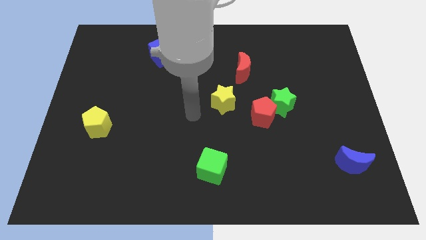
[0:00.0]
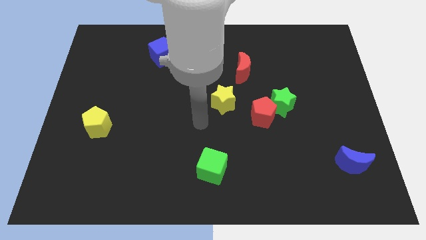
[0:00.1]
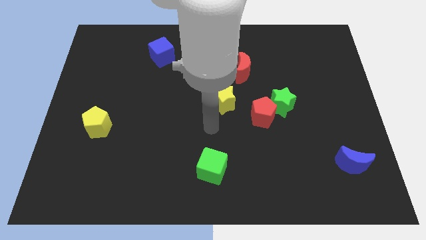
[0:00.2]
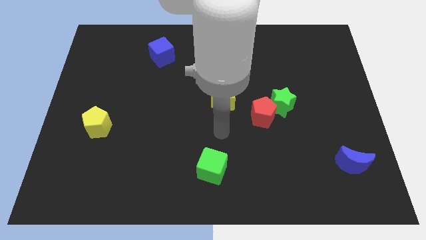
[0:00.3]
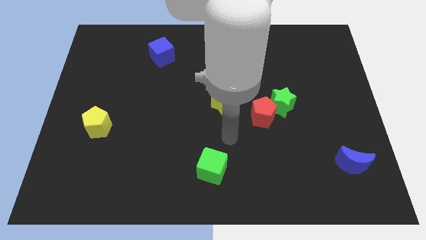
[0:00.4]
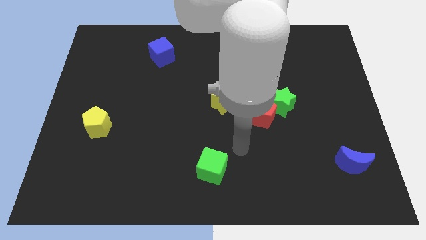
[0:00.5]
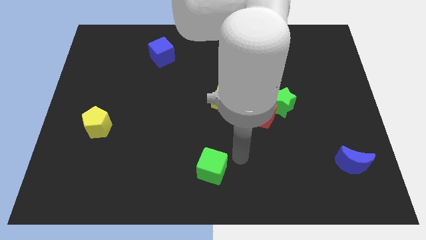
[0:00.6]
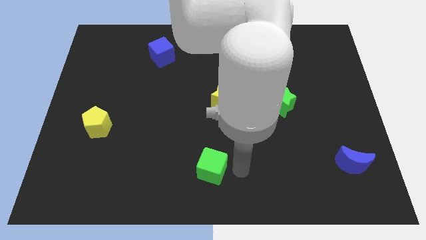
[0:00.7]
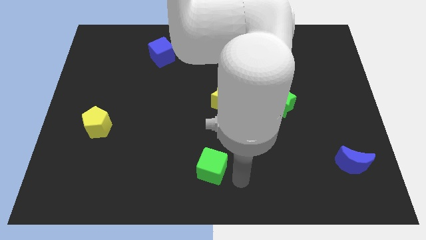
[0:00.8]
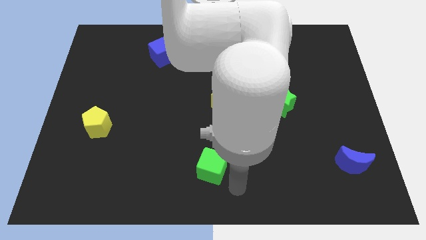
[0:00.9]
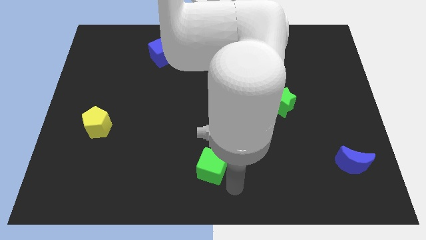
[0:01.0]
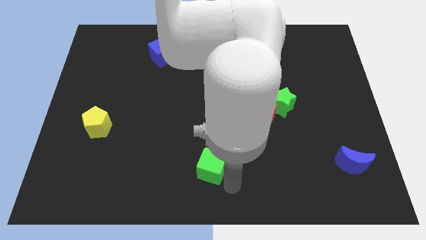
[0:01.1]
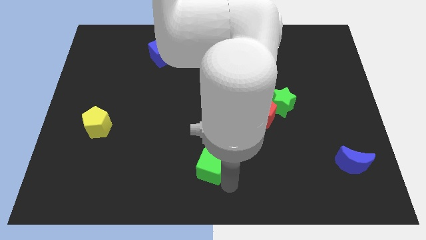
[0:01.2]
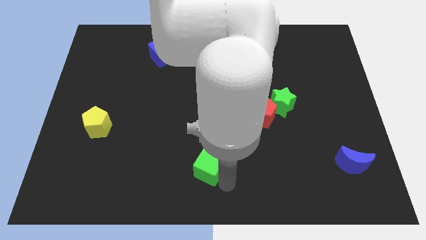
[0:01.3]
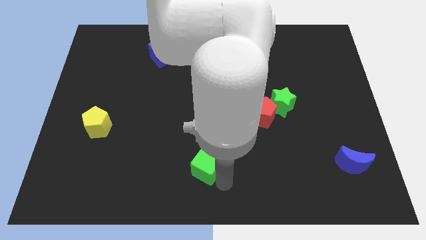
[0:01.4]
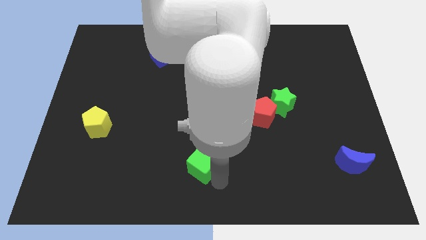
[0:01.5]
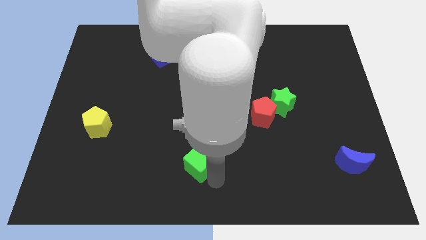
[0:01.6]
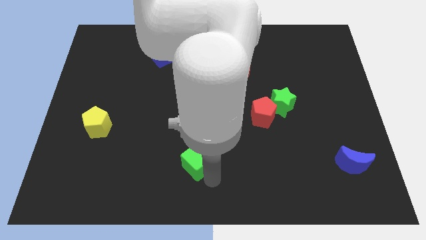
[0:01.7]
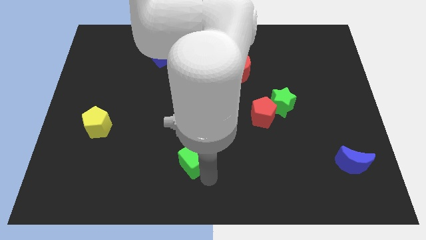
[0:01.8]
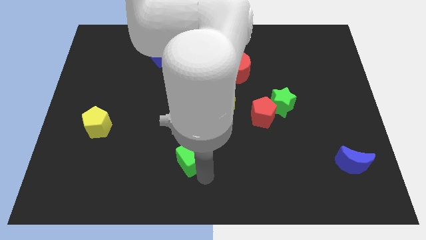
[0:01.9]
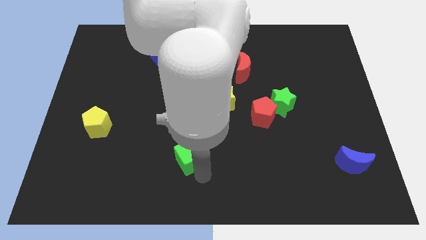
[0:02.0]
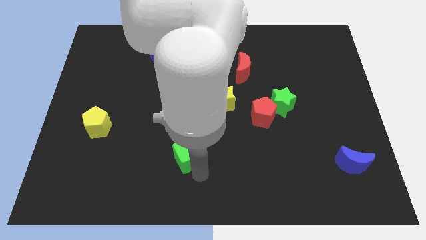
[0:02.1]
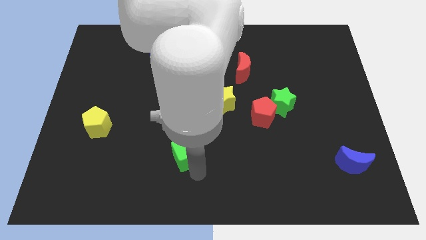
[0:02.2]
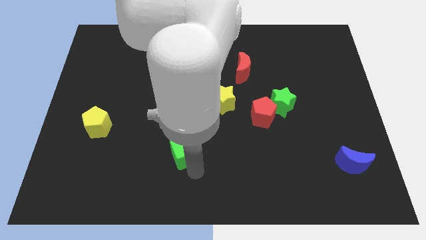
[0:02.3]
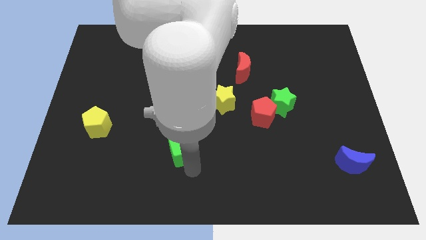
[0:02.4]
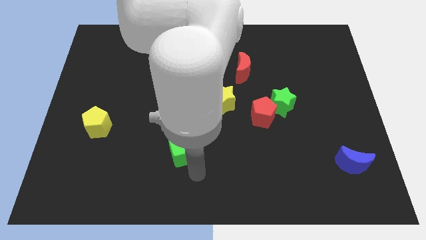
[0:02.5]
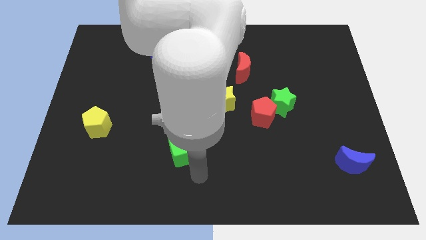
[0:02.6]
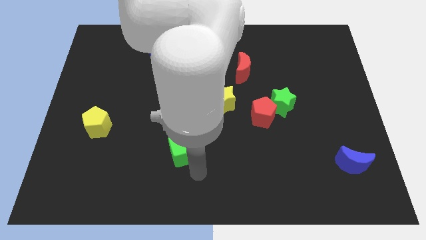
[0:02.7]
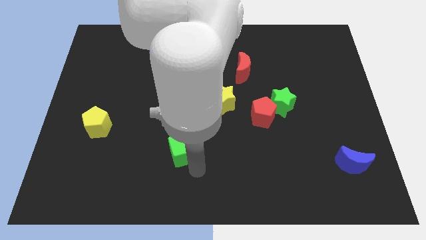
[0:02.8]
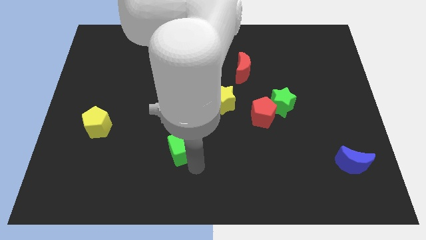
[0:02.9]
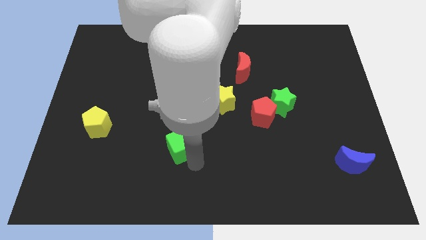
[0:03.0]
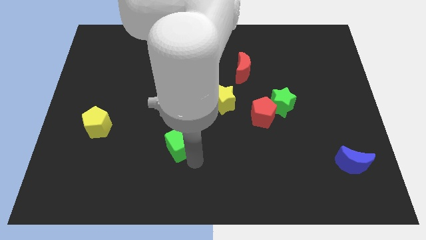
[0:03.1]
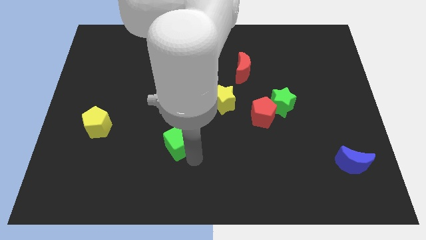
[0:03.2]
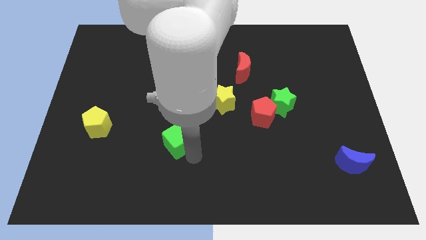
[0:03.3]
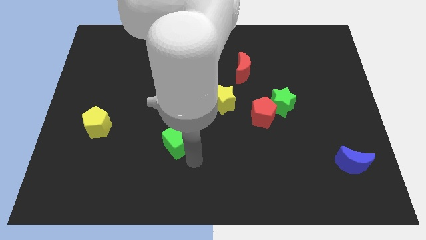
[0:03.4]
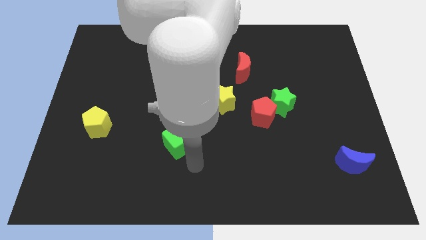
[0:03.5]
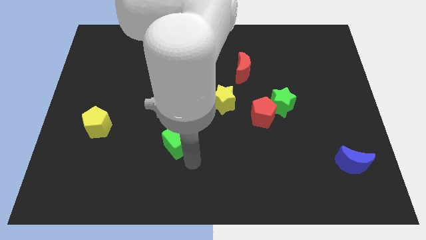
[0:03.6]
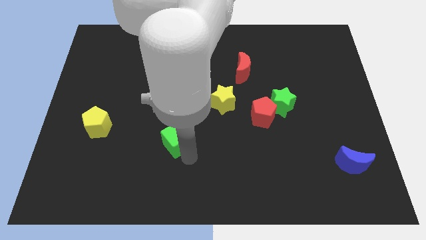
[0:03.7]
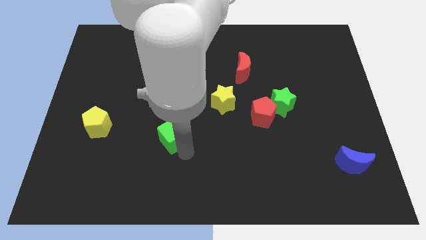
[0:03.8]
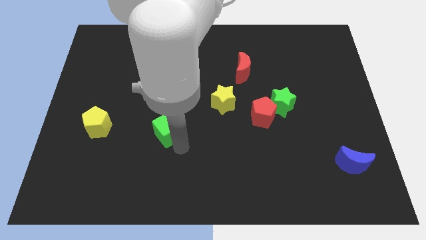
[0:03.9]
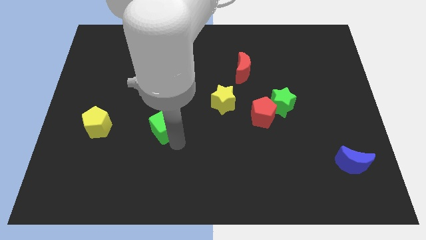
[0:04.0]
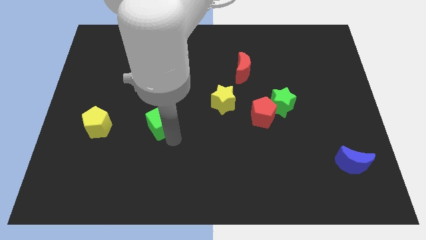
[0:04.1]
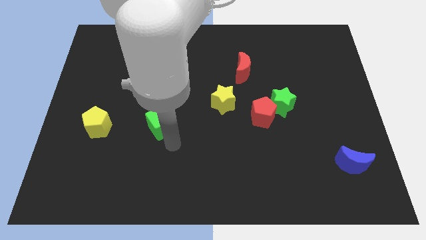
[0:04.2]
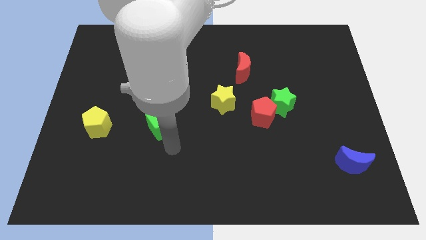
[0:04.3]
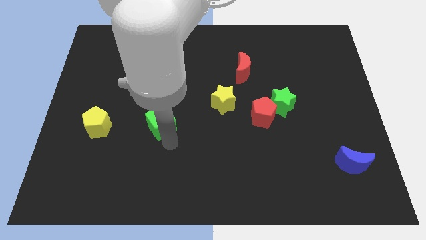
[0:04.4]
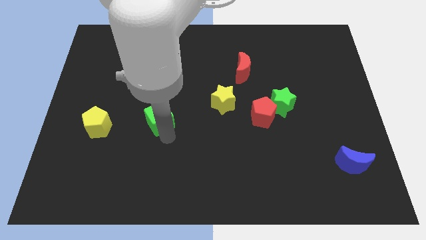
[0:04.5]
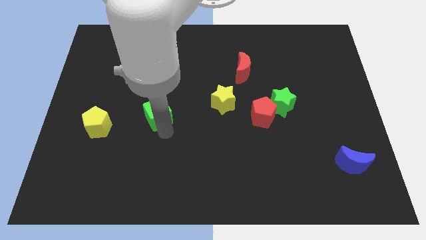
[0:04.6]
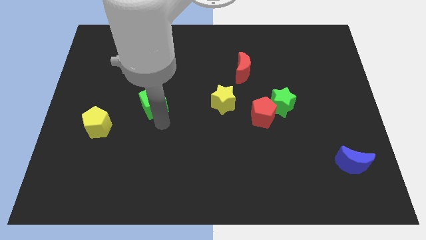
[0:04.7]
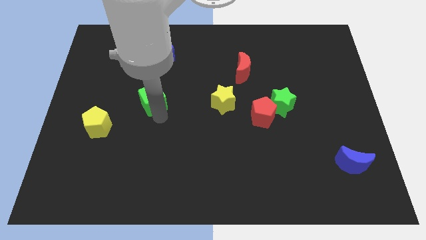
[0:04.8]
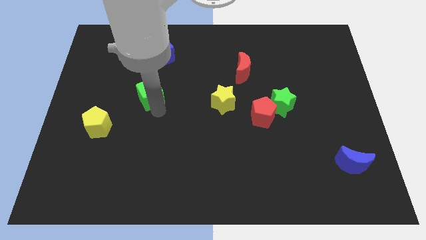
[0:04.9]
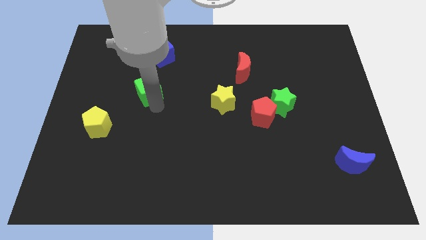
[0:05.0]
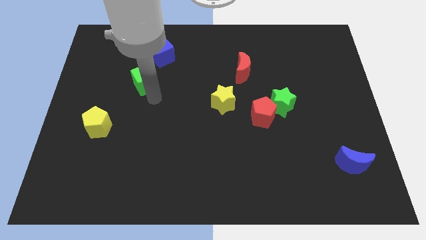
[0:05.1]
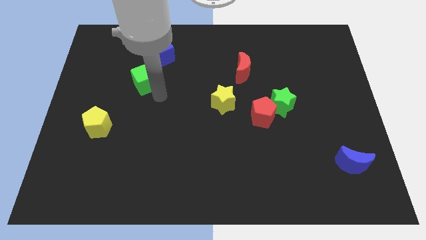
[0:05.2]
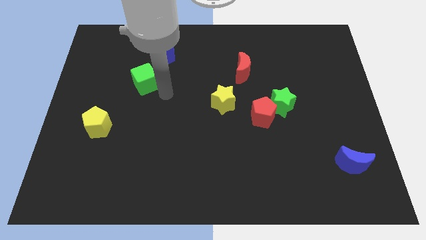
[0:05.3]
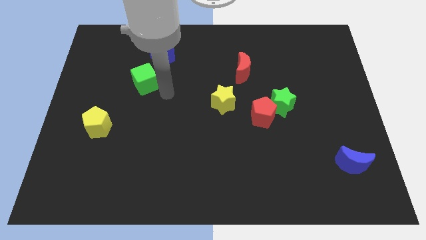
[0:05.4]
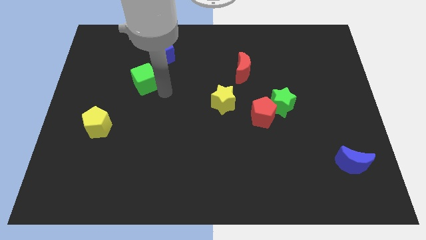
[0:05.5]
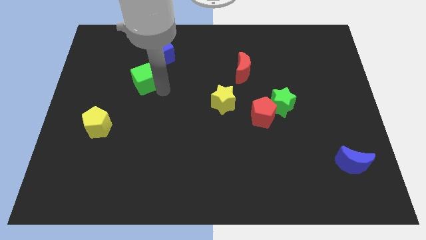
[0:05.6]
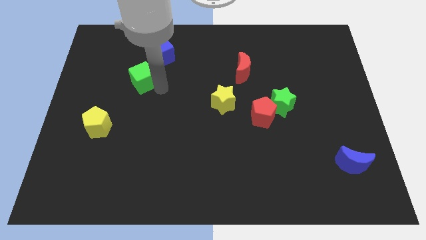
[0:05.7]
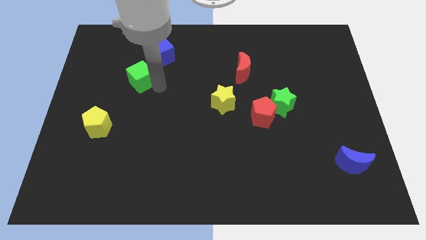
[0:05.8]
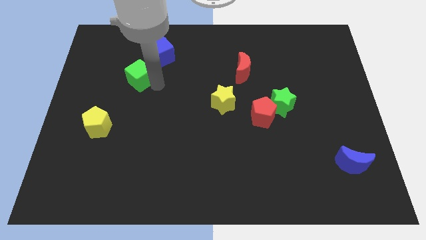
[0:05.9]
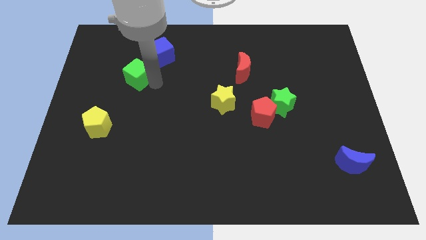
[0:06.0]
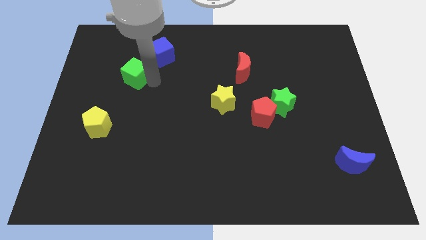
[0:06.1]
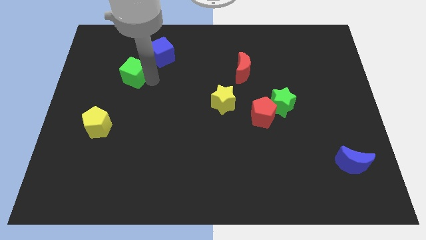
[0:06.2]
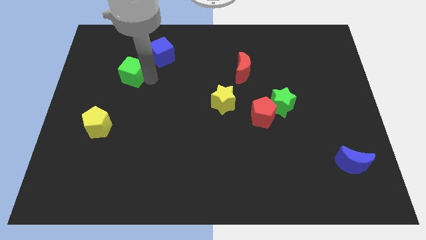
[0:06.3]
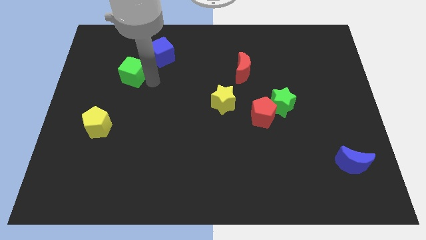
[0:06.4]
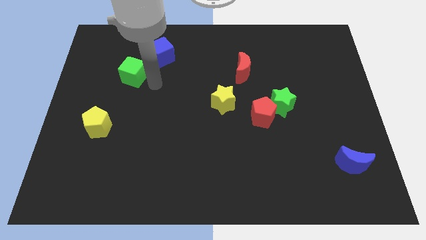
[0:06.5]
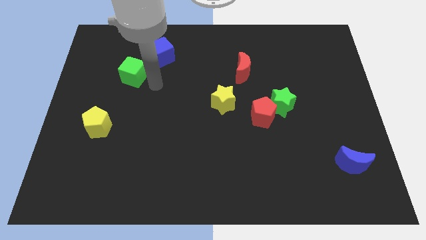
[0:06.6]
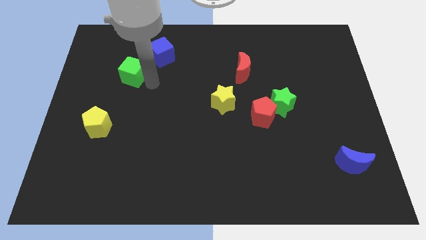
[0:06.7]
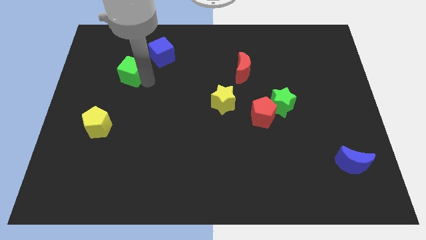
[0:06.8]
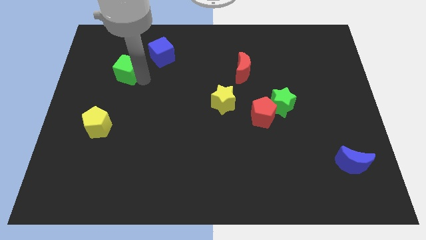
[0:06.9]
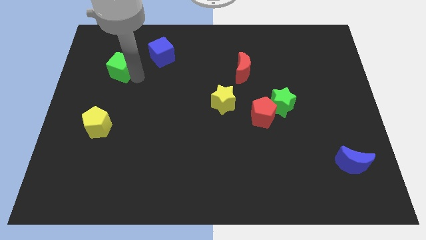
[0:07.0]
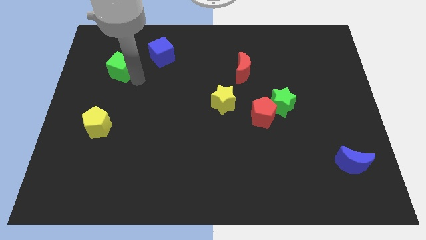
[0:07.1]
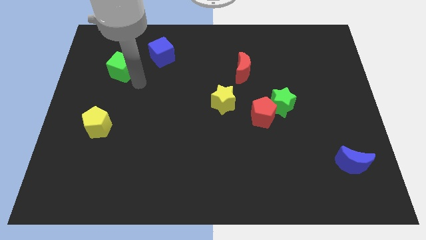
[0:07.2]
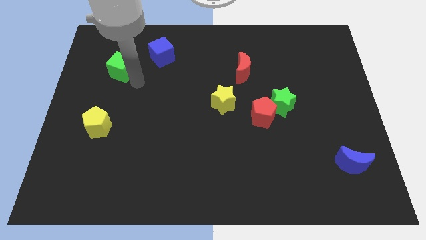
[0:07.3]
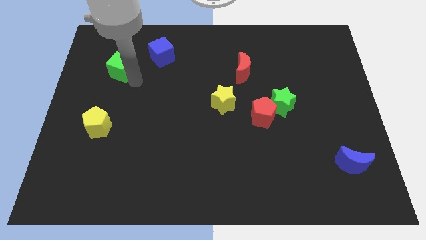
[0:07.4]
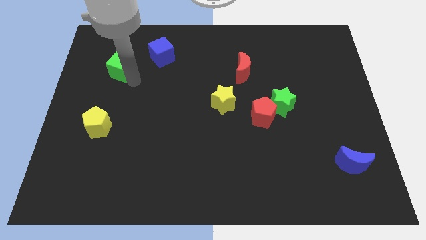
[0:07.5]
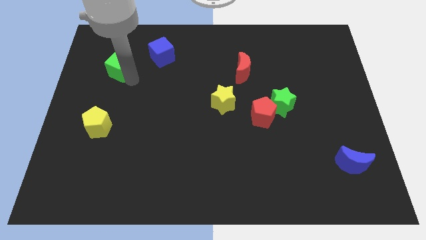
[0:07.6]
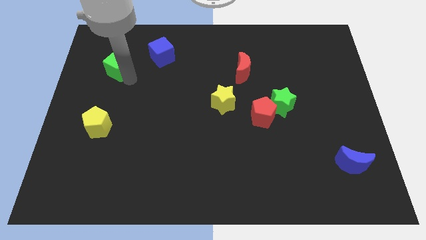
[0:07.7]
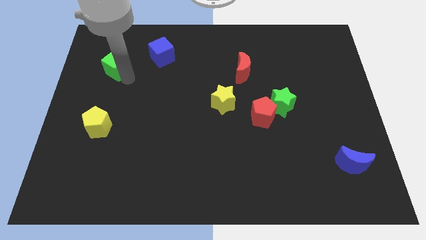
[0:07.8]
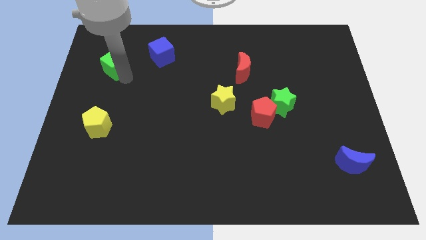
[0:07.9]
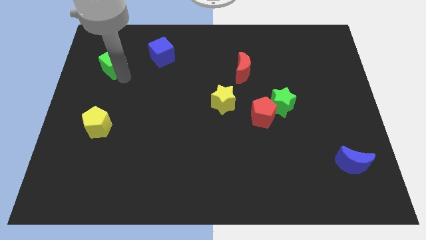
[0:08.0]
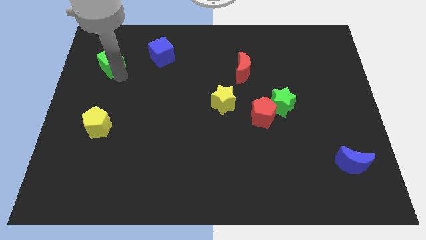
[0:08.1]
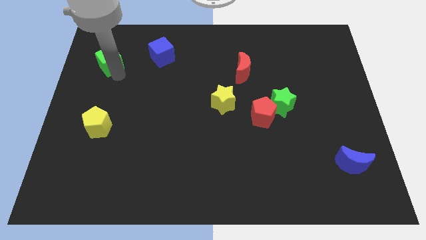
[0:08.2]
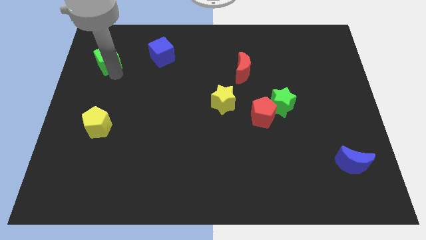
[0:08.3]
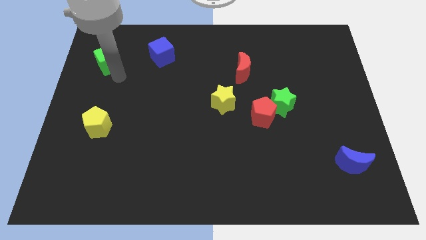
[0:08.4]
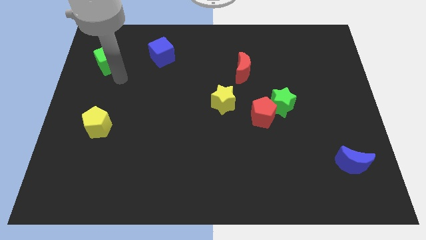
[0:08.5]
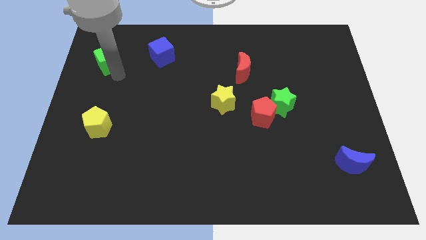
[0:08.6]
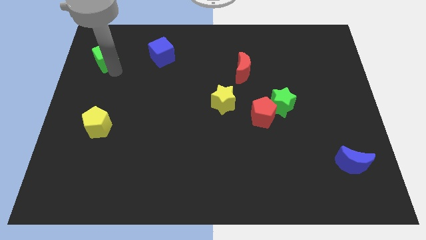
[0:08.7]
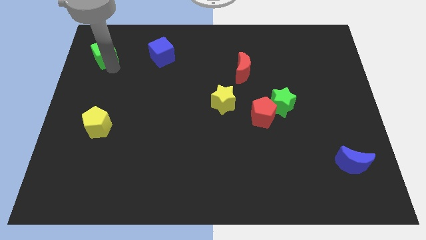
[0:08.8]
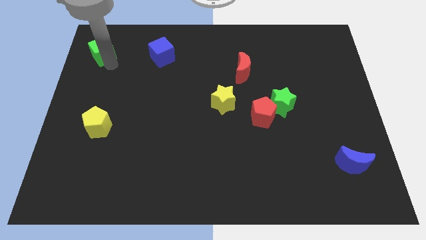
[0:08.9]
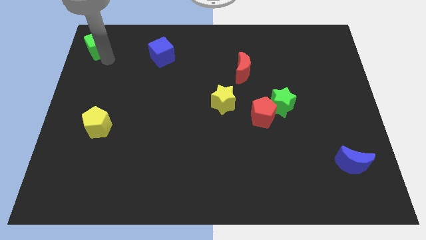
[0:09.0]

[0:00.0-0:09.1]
move the green cube to the top left
